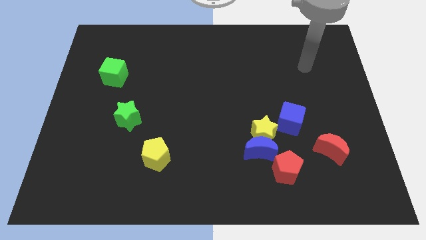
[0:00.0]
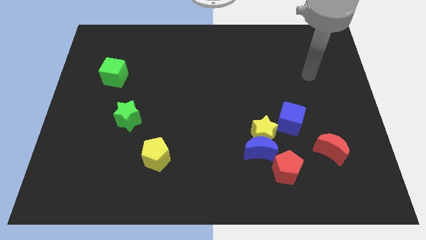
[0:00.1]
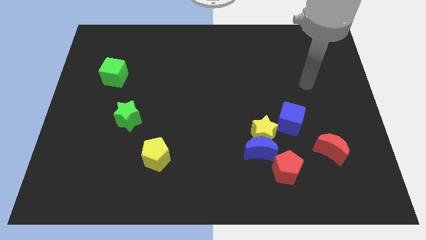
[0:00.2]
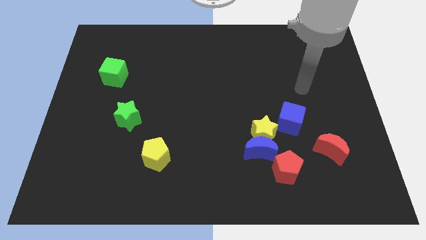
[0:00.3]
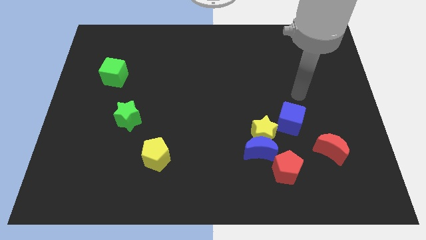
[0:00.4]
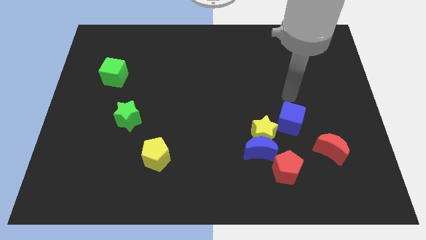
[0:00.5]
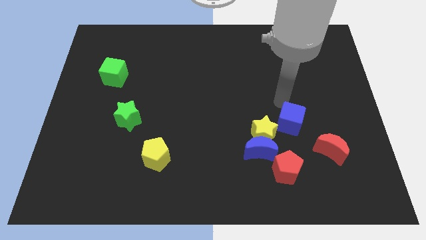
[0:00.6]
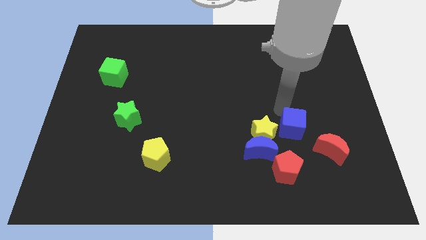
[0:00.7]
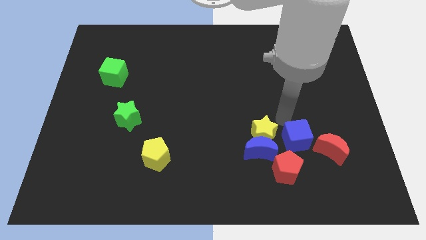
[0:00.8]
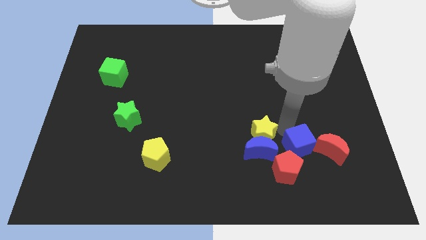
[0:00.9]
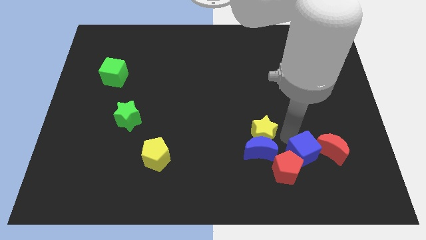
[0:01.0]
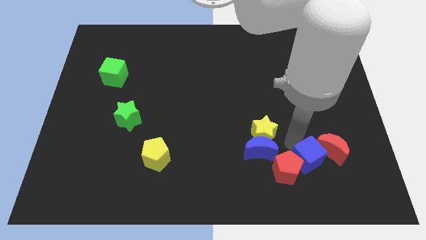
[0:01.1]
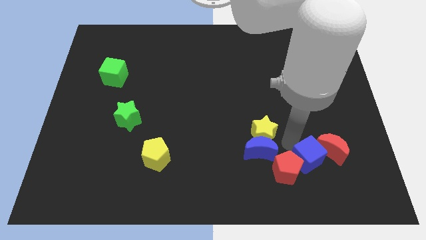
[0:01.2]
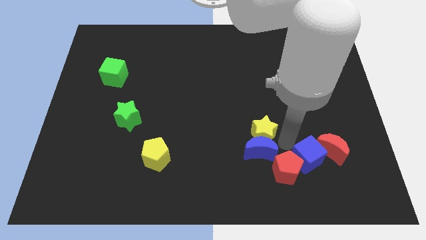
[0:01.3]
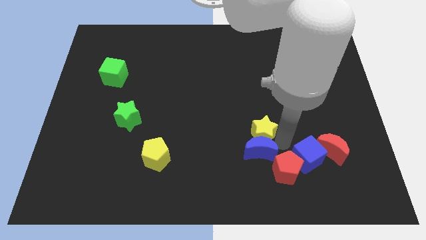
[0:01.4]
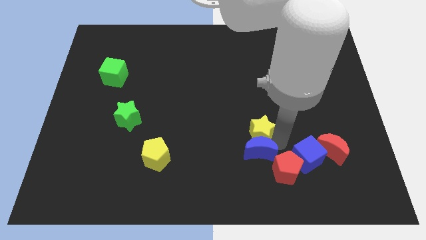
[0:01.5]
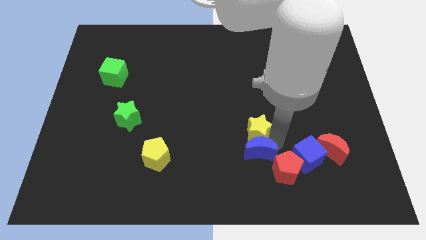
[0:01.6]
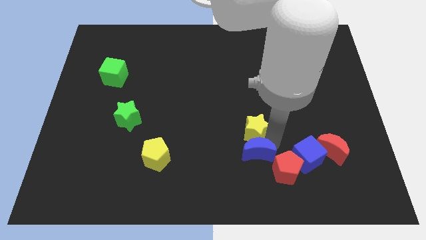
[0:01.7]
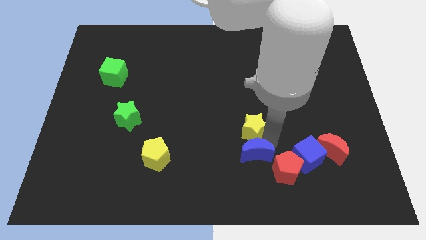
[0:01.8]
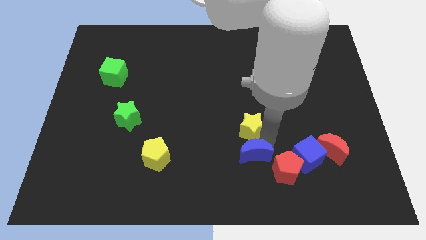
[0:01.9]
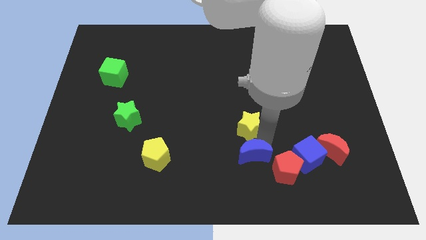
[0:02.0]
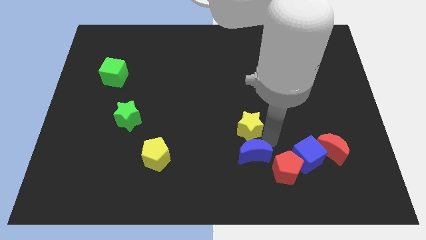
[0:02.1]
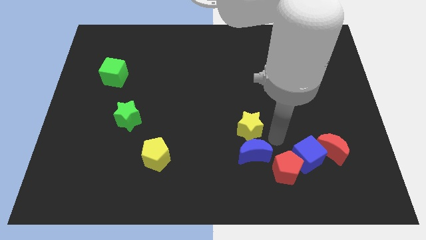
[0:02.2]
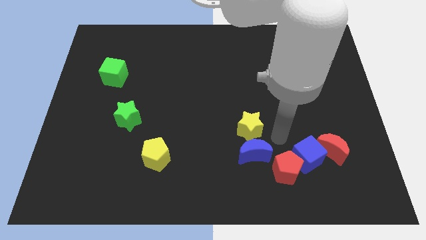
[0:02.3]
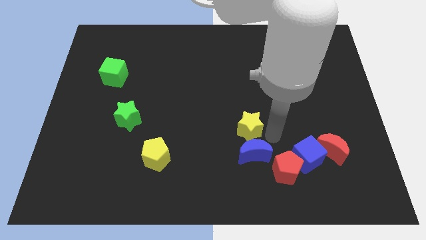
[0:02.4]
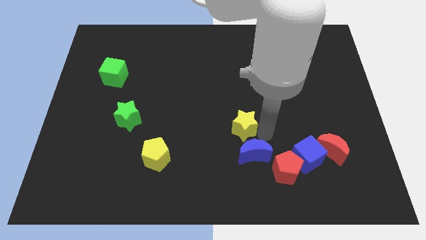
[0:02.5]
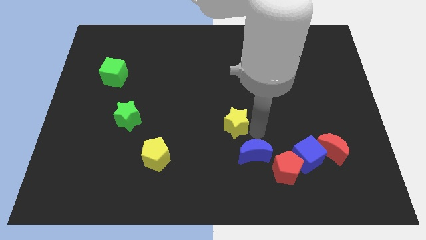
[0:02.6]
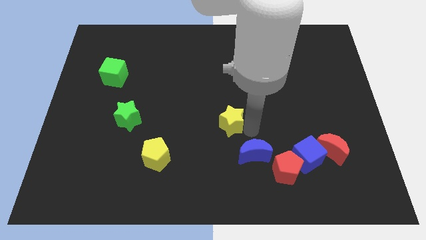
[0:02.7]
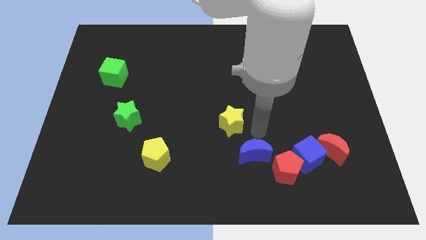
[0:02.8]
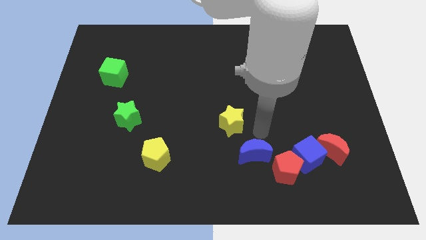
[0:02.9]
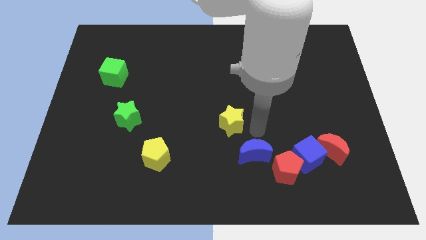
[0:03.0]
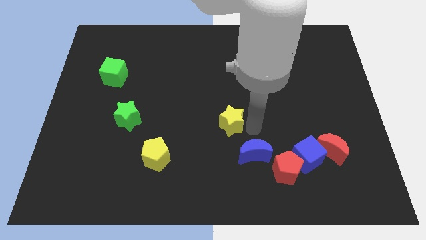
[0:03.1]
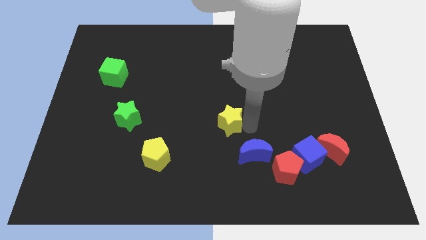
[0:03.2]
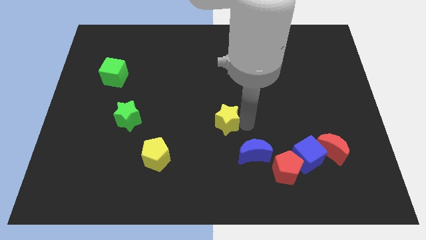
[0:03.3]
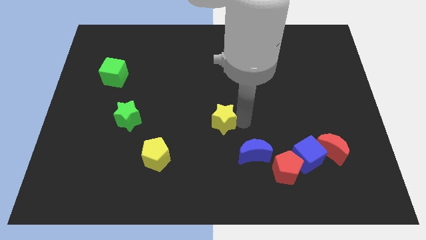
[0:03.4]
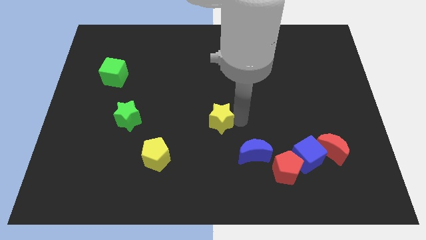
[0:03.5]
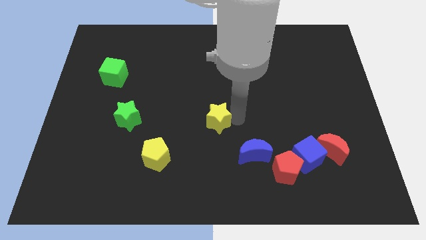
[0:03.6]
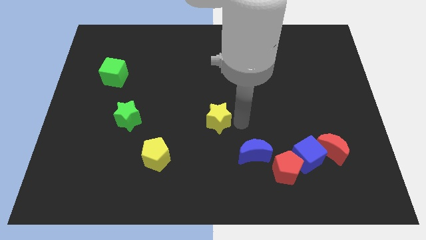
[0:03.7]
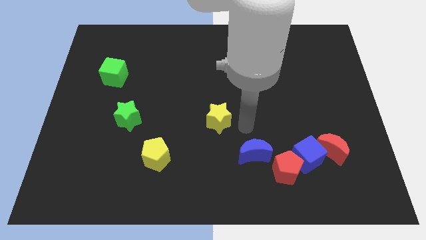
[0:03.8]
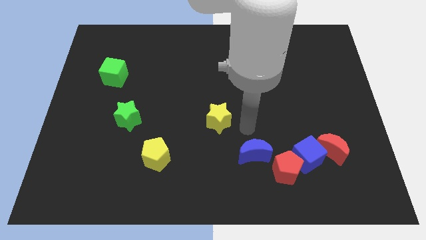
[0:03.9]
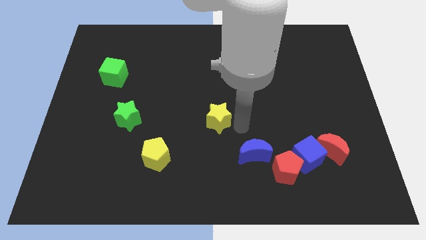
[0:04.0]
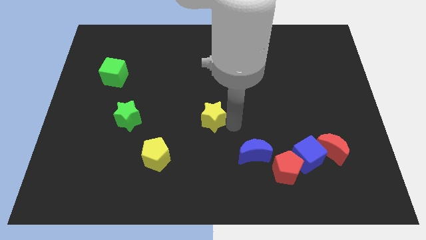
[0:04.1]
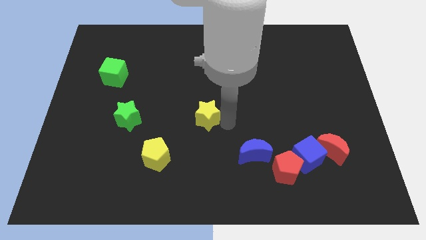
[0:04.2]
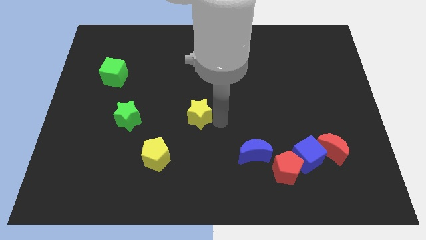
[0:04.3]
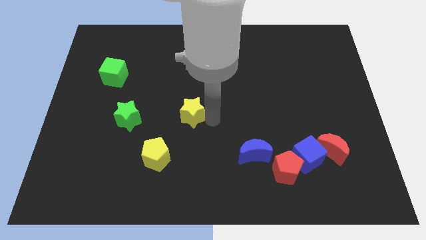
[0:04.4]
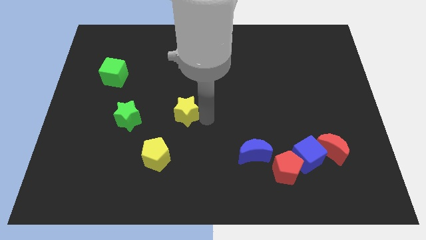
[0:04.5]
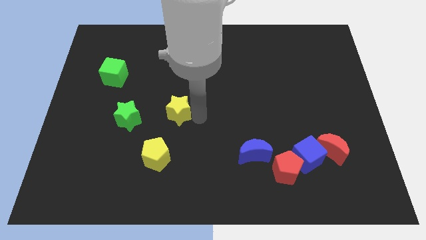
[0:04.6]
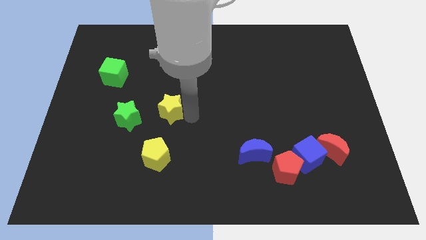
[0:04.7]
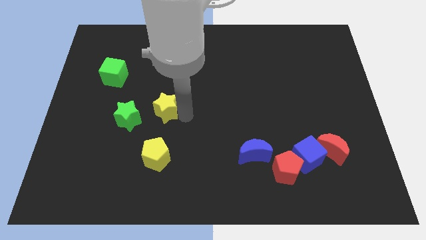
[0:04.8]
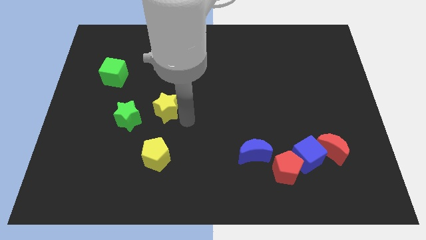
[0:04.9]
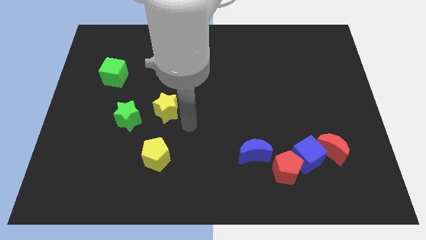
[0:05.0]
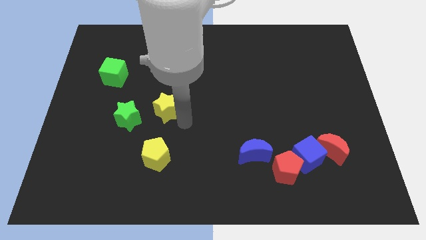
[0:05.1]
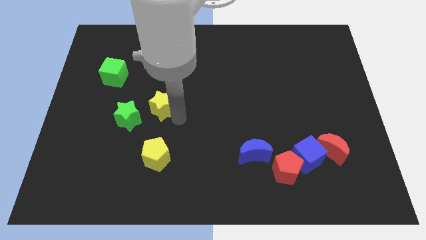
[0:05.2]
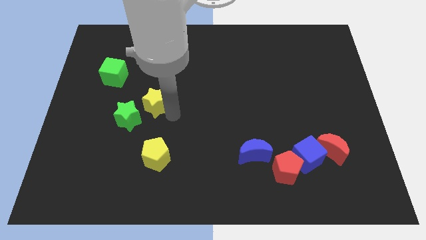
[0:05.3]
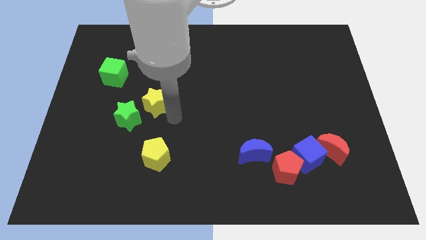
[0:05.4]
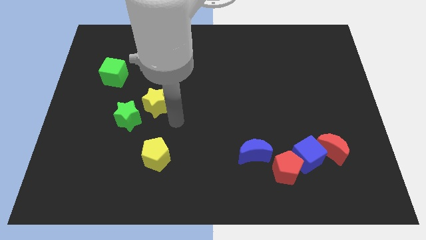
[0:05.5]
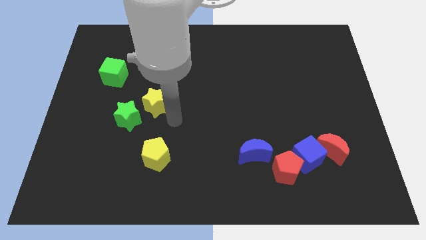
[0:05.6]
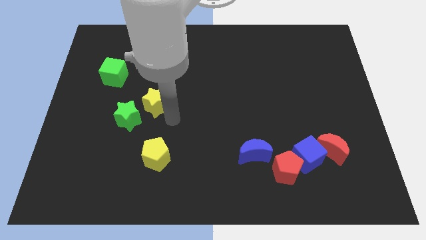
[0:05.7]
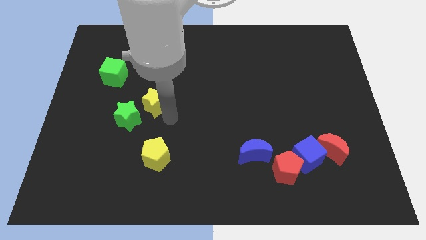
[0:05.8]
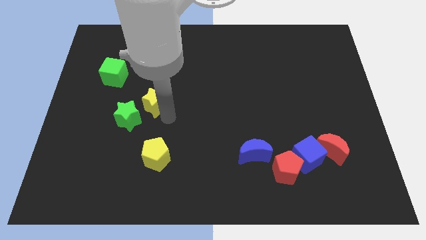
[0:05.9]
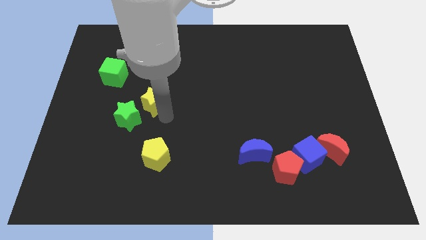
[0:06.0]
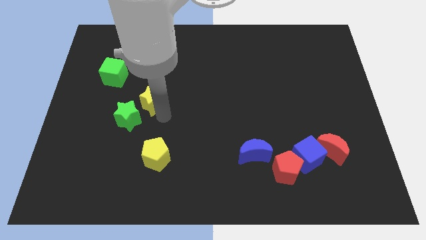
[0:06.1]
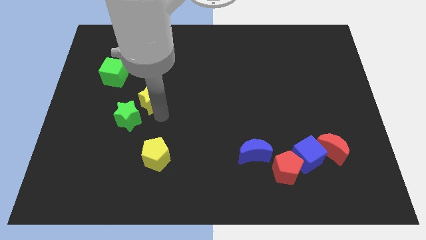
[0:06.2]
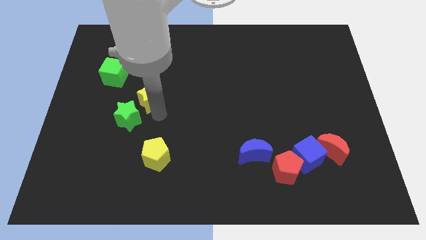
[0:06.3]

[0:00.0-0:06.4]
put the yellow star to the top of the green star
